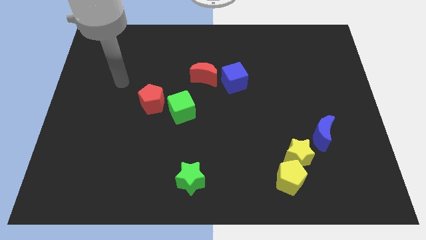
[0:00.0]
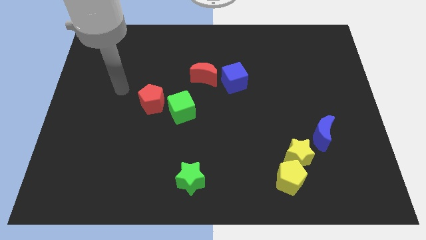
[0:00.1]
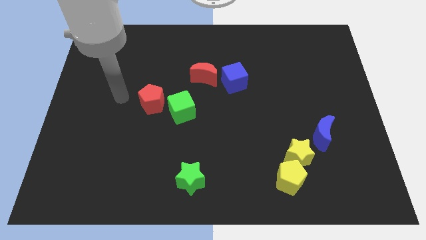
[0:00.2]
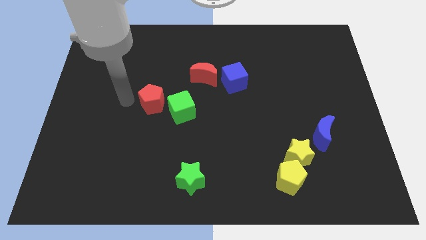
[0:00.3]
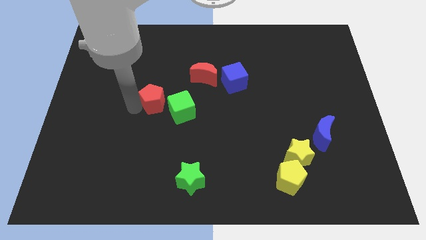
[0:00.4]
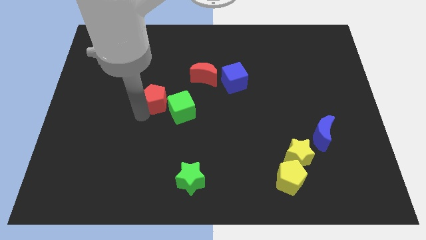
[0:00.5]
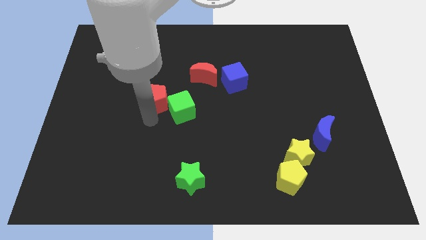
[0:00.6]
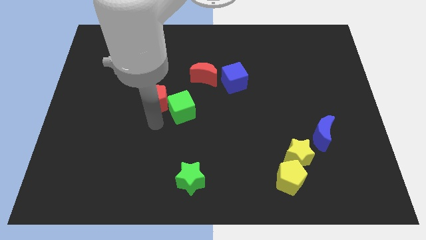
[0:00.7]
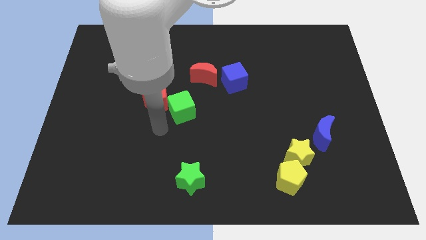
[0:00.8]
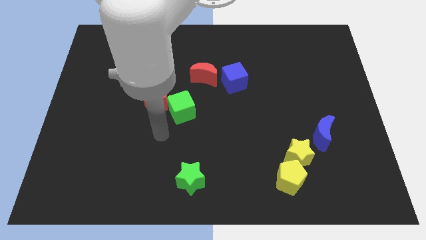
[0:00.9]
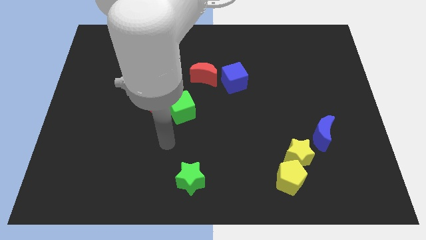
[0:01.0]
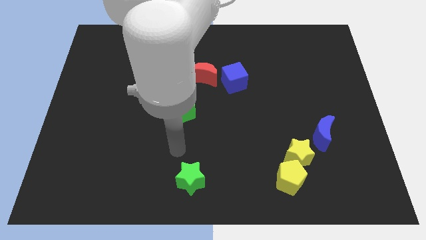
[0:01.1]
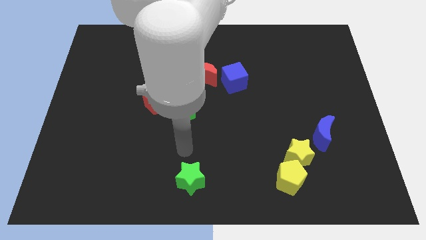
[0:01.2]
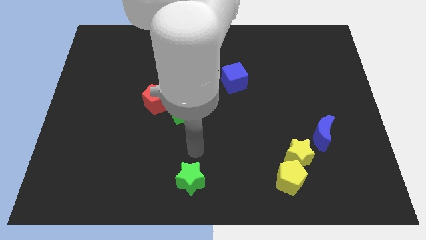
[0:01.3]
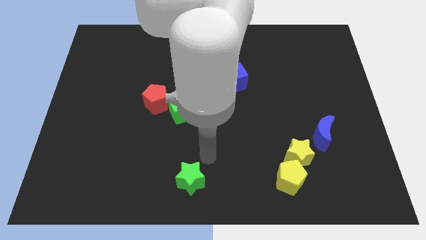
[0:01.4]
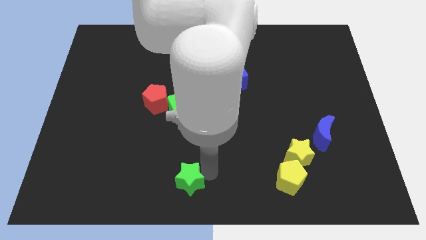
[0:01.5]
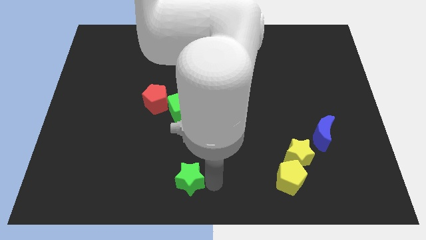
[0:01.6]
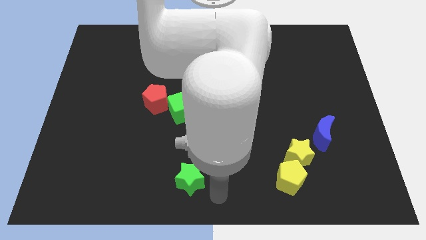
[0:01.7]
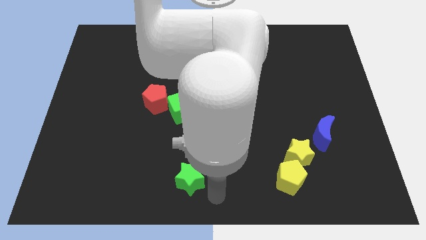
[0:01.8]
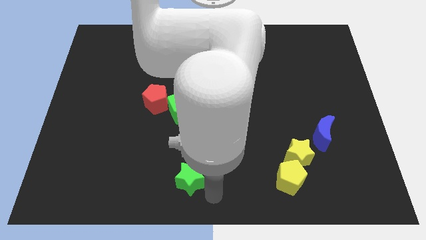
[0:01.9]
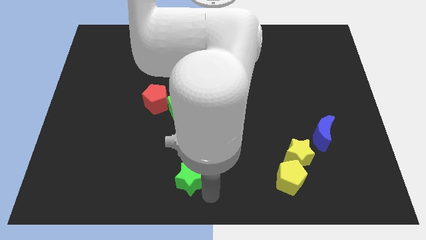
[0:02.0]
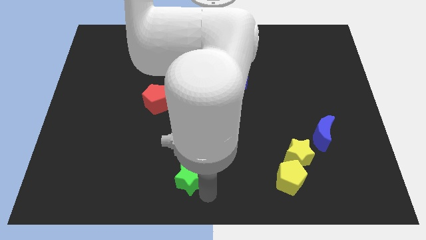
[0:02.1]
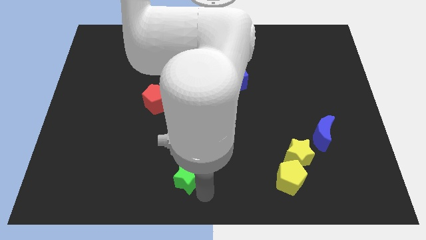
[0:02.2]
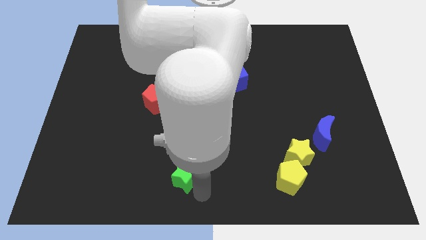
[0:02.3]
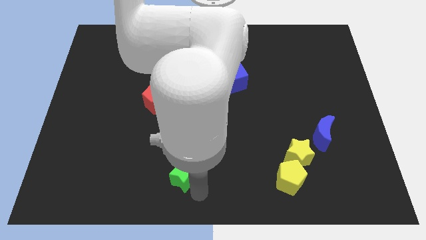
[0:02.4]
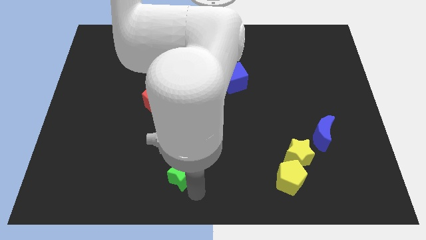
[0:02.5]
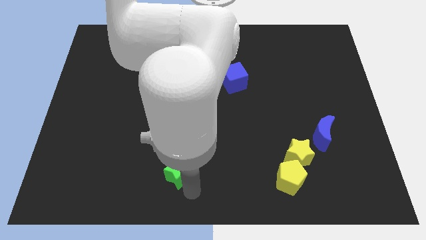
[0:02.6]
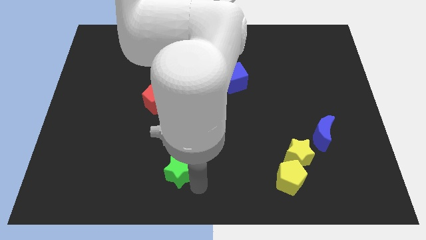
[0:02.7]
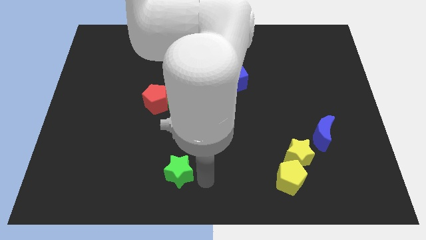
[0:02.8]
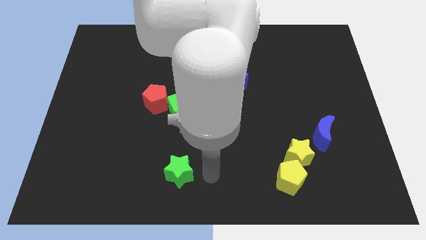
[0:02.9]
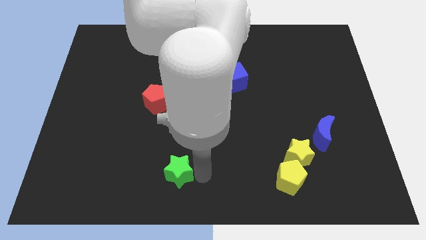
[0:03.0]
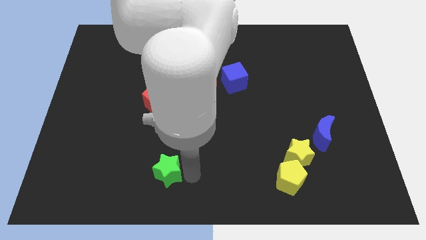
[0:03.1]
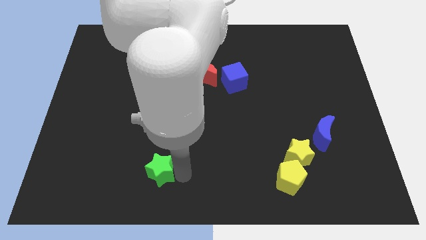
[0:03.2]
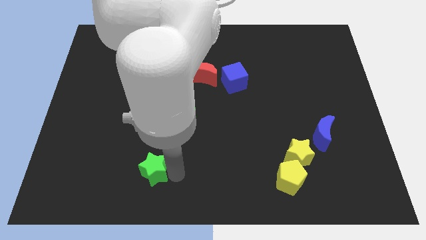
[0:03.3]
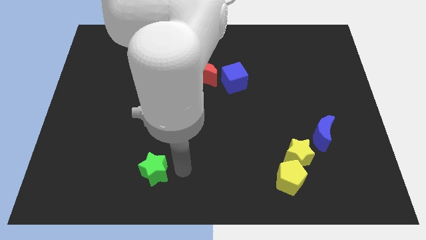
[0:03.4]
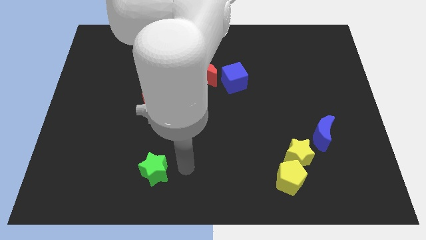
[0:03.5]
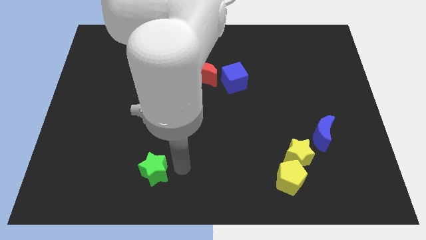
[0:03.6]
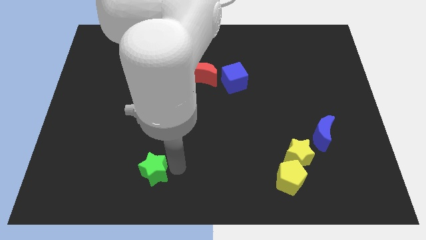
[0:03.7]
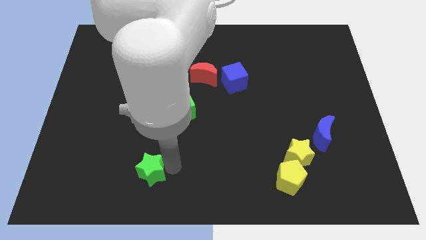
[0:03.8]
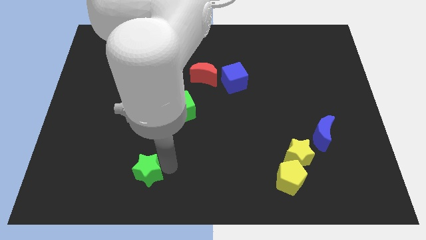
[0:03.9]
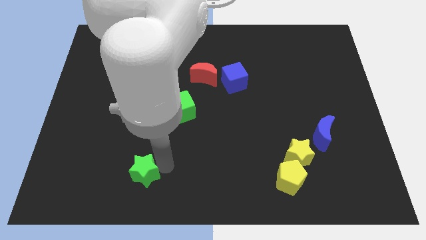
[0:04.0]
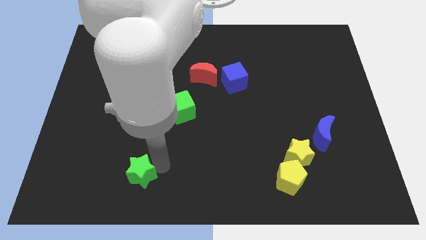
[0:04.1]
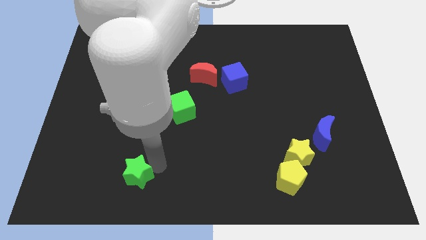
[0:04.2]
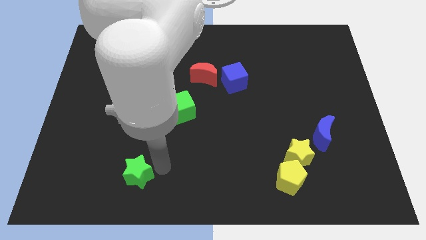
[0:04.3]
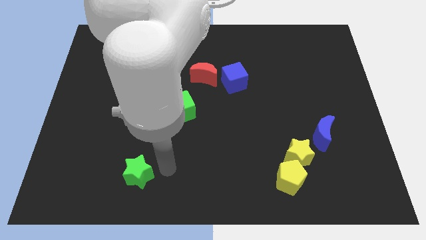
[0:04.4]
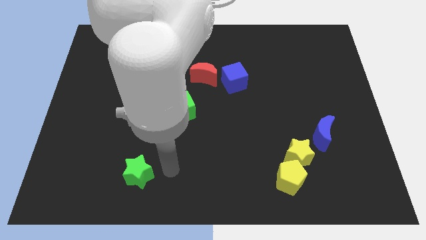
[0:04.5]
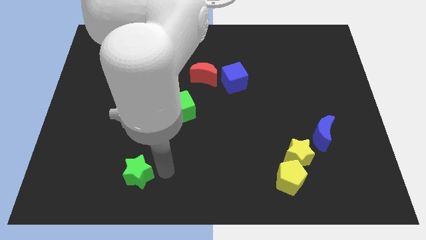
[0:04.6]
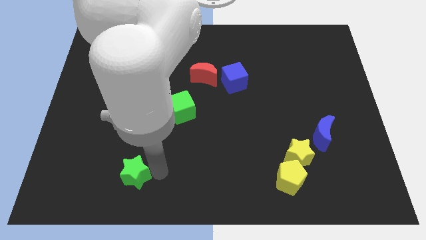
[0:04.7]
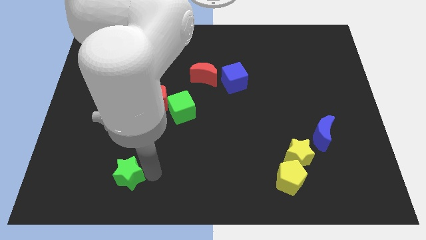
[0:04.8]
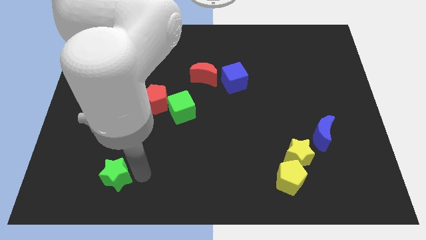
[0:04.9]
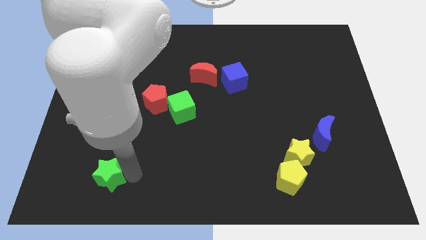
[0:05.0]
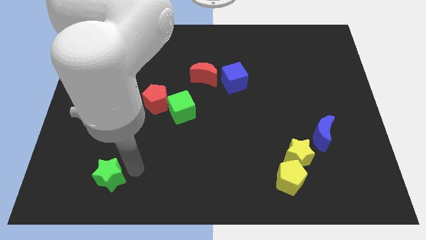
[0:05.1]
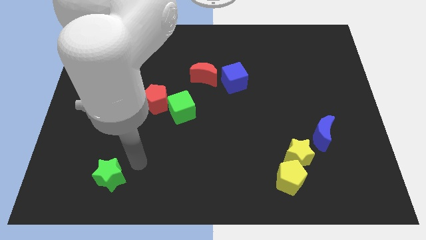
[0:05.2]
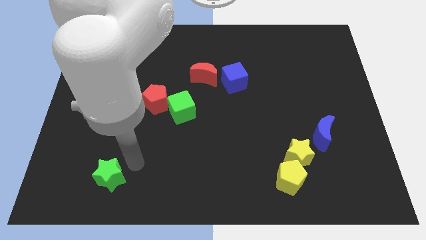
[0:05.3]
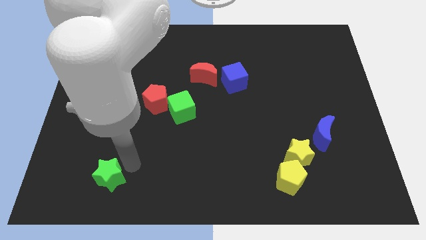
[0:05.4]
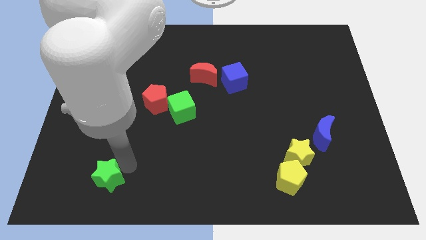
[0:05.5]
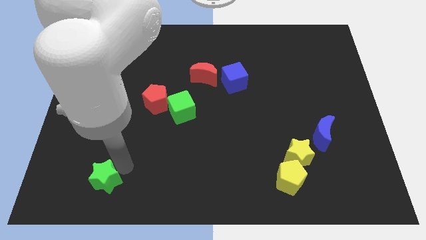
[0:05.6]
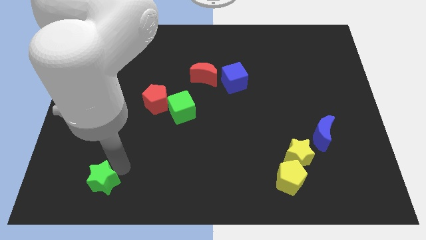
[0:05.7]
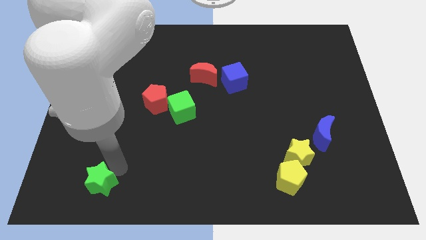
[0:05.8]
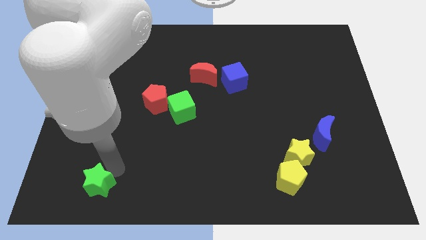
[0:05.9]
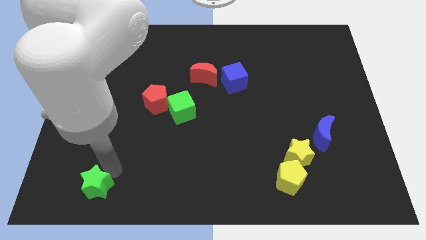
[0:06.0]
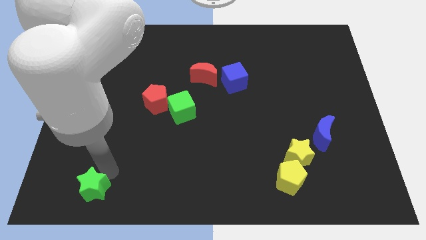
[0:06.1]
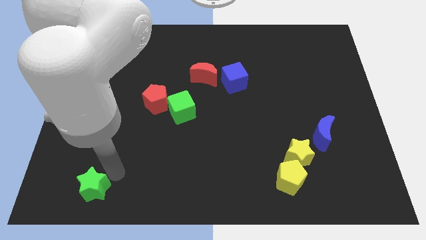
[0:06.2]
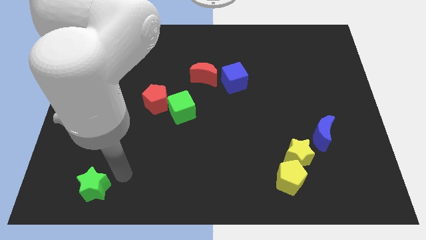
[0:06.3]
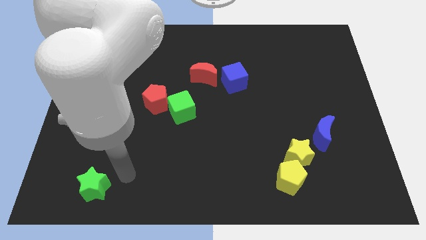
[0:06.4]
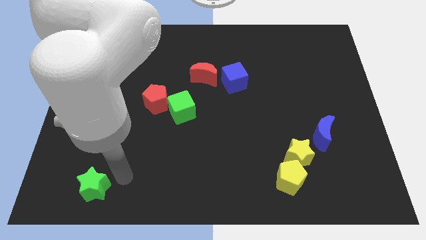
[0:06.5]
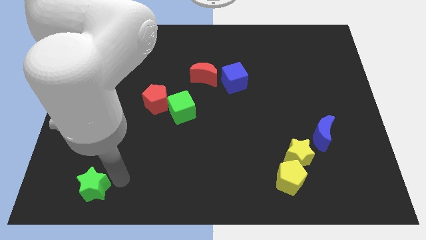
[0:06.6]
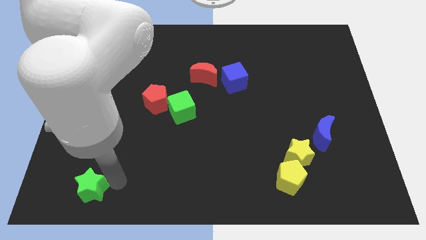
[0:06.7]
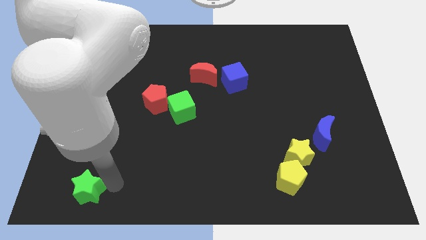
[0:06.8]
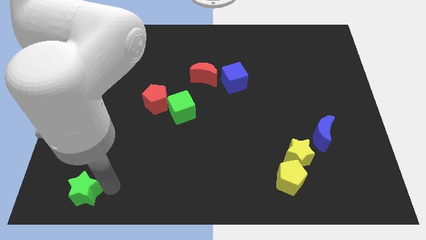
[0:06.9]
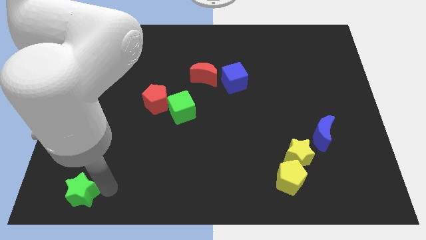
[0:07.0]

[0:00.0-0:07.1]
move the green star to the bottom left of the board

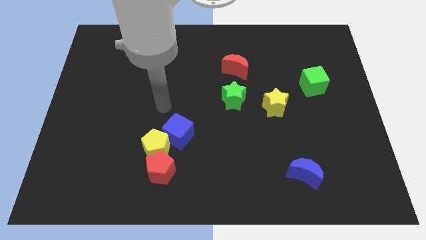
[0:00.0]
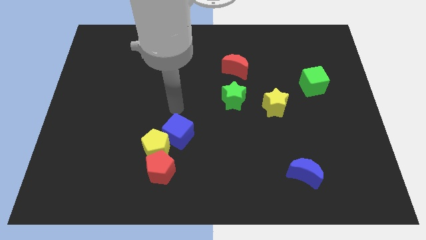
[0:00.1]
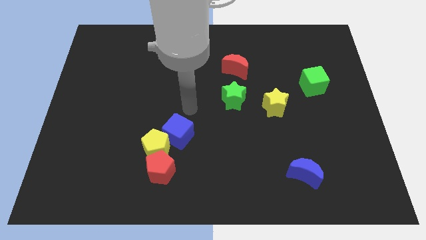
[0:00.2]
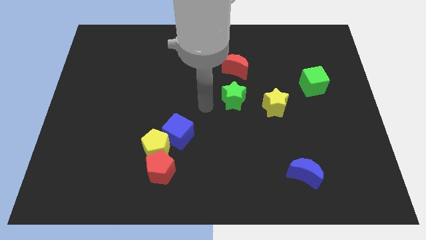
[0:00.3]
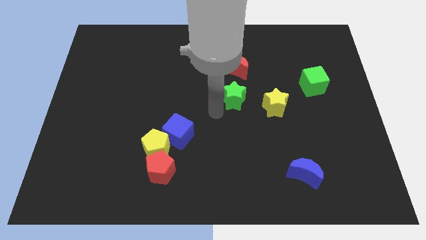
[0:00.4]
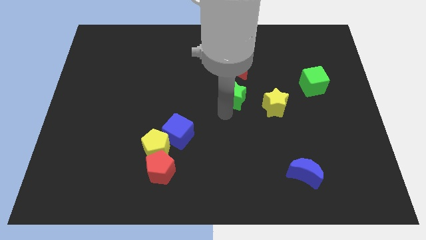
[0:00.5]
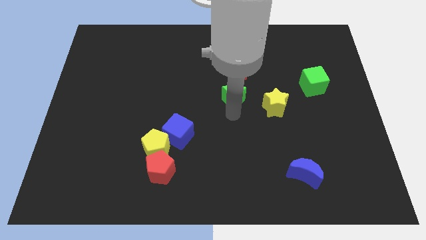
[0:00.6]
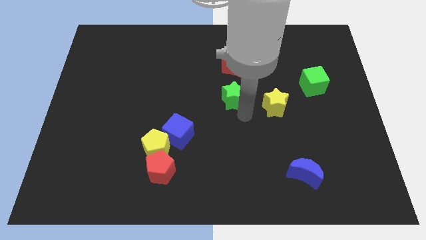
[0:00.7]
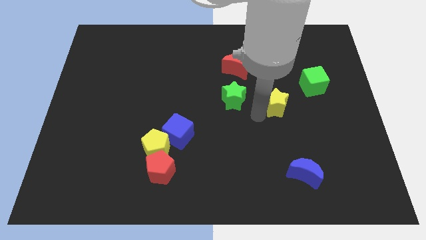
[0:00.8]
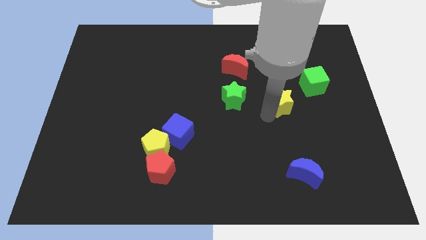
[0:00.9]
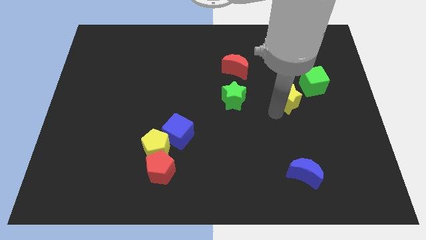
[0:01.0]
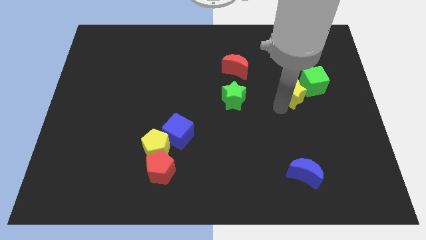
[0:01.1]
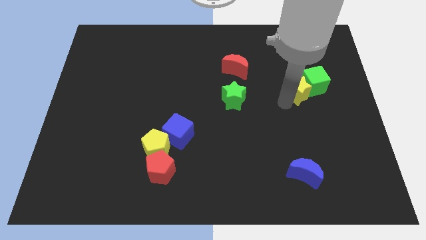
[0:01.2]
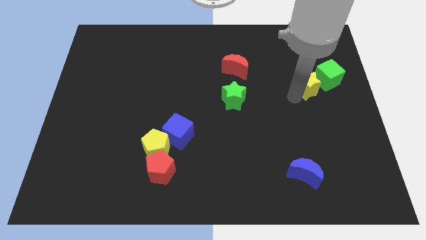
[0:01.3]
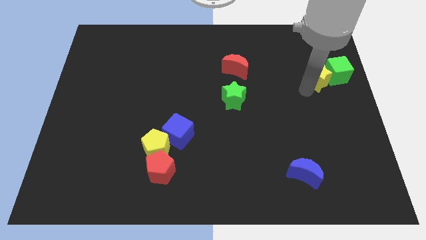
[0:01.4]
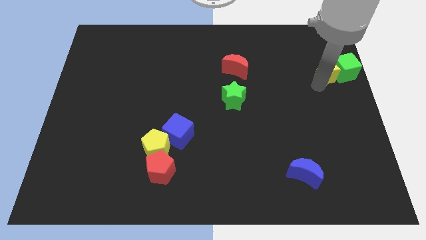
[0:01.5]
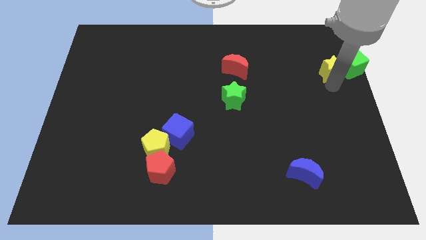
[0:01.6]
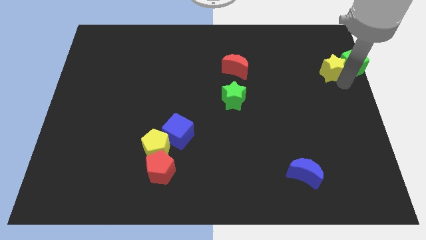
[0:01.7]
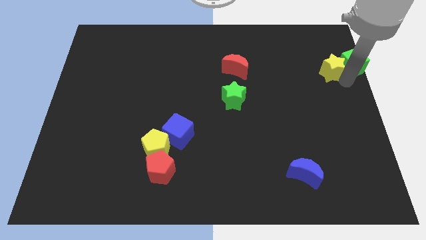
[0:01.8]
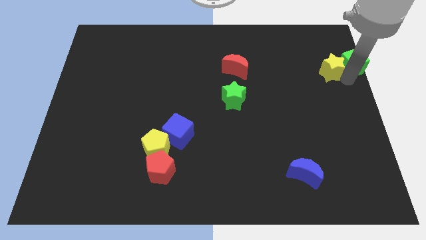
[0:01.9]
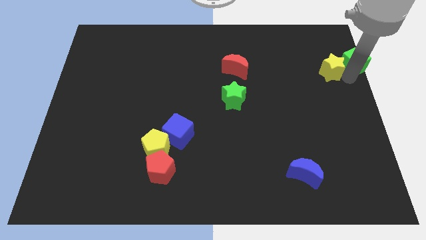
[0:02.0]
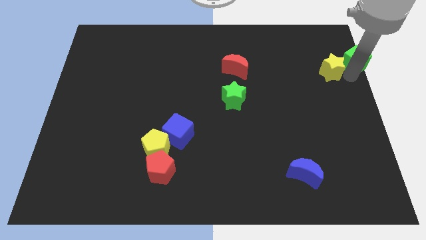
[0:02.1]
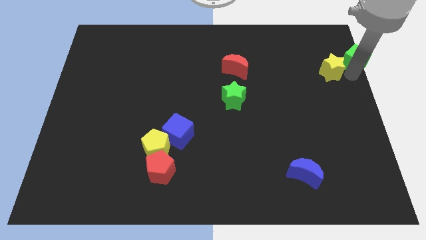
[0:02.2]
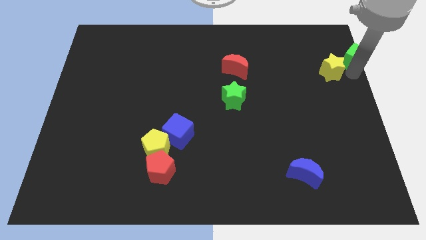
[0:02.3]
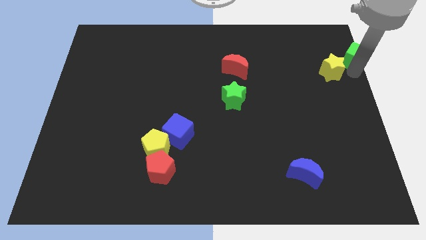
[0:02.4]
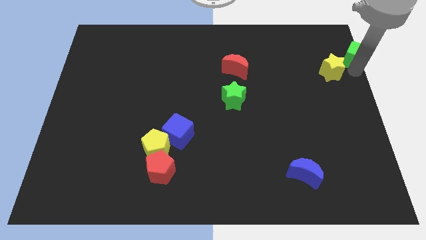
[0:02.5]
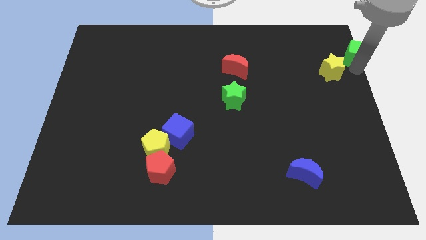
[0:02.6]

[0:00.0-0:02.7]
push the green cube to the upper right corner
